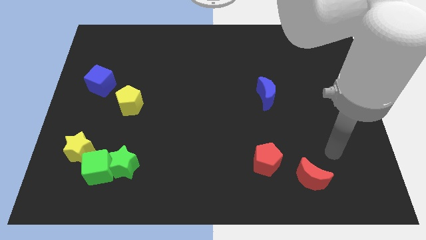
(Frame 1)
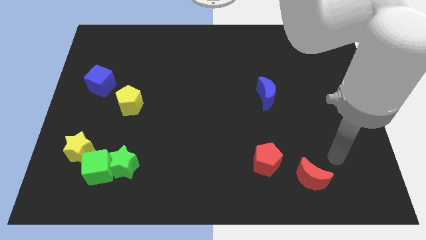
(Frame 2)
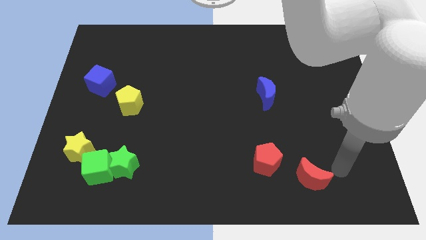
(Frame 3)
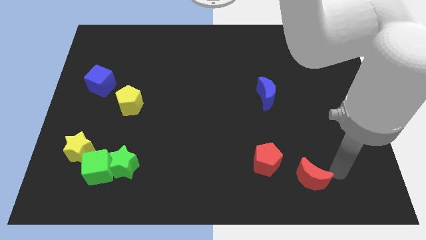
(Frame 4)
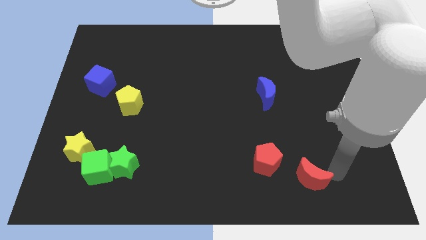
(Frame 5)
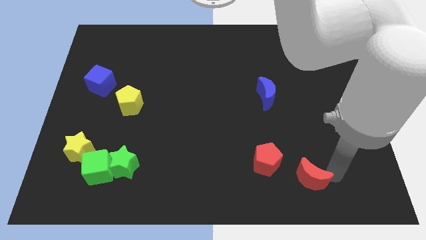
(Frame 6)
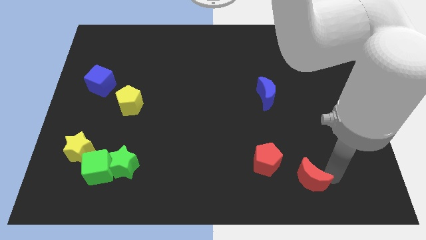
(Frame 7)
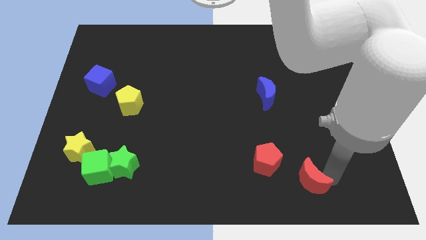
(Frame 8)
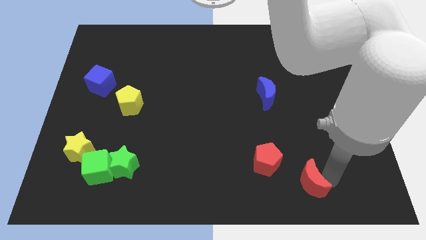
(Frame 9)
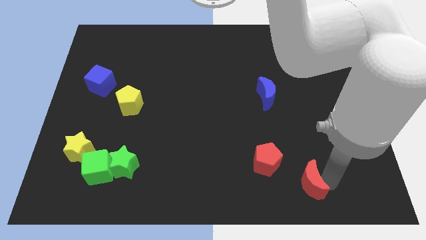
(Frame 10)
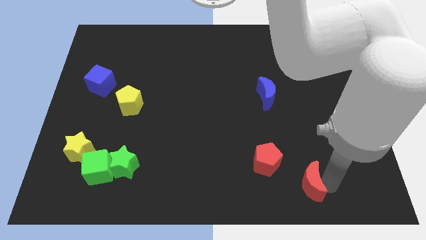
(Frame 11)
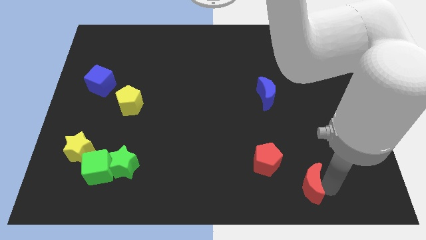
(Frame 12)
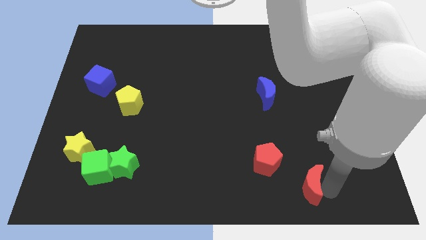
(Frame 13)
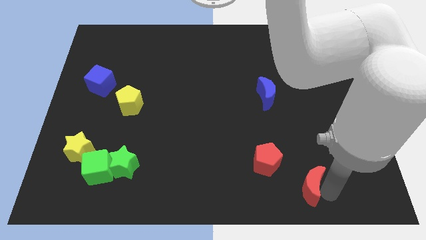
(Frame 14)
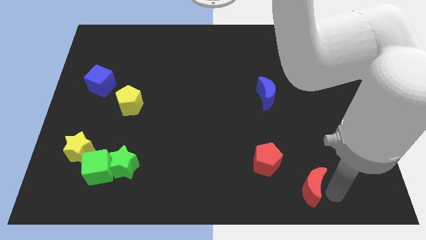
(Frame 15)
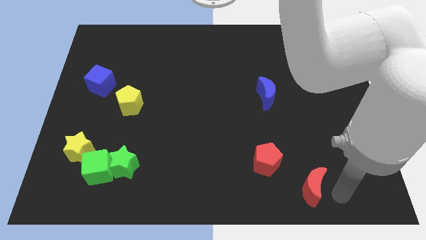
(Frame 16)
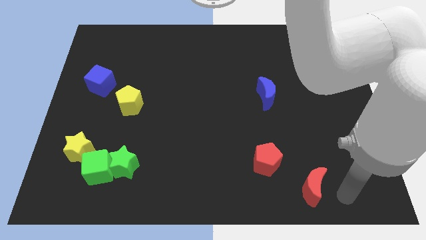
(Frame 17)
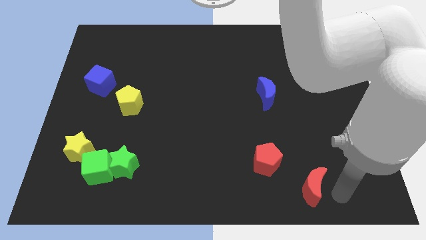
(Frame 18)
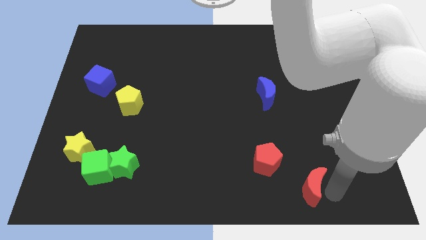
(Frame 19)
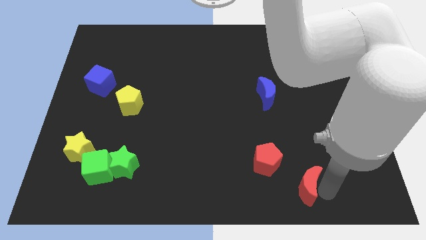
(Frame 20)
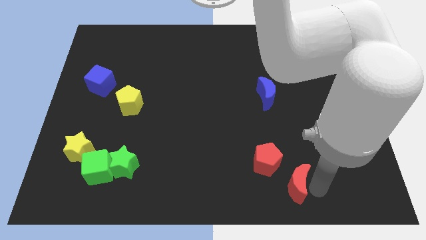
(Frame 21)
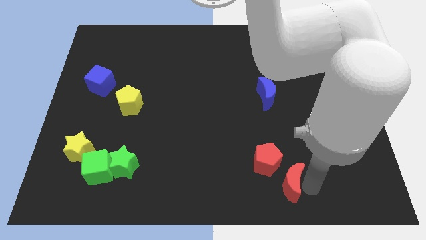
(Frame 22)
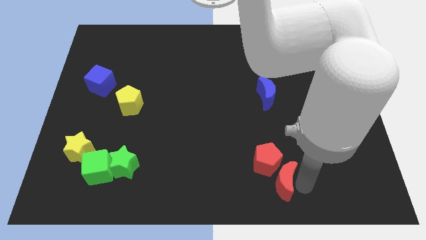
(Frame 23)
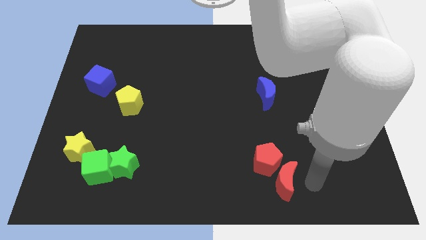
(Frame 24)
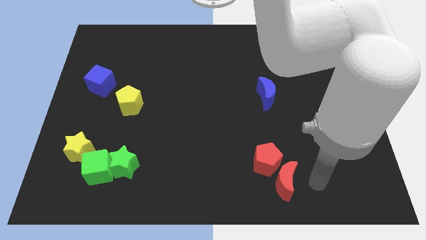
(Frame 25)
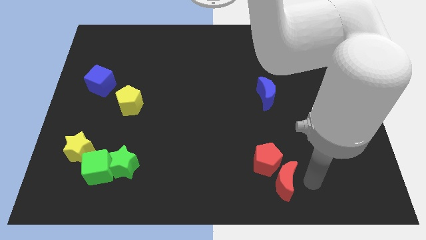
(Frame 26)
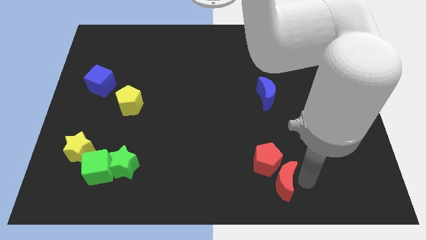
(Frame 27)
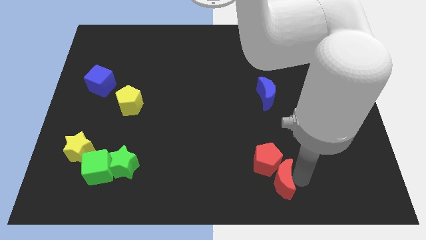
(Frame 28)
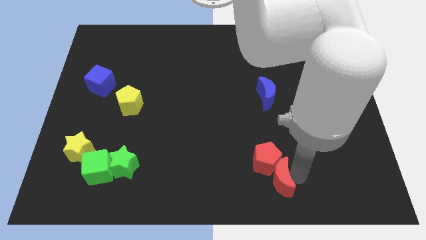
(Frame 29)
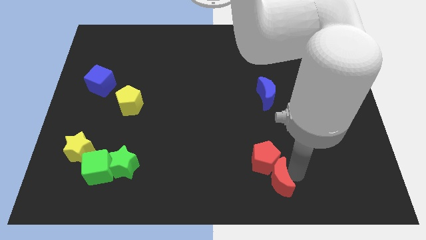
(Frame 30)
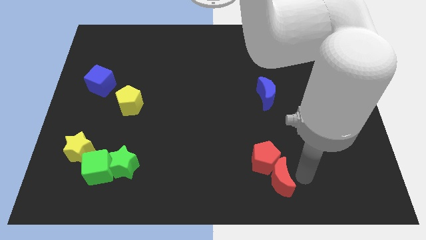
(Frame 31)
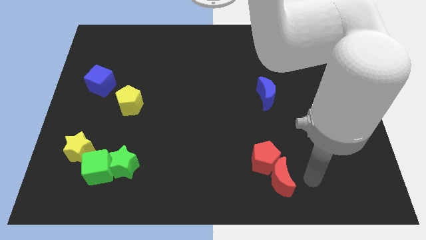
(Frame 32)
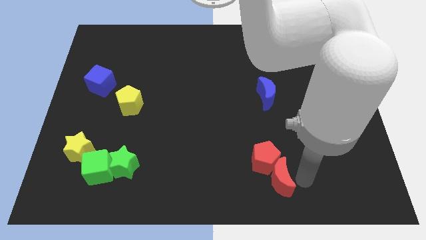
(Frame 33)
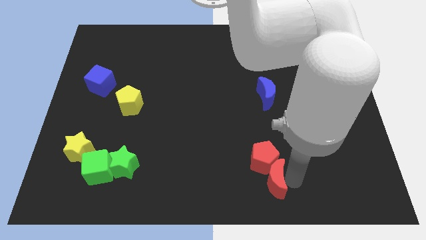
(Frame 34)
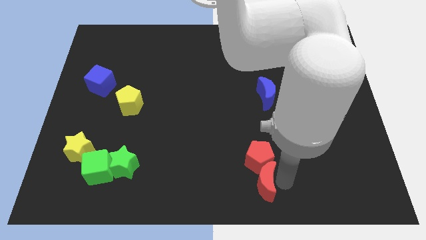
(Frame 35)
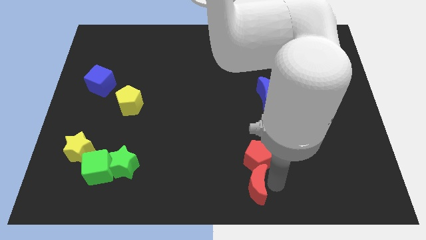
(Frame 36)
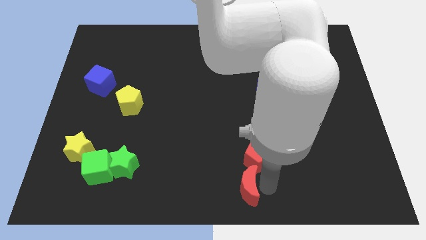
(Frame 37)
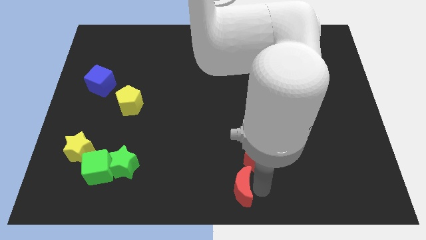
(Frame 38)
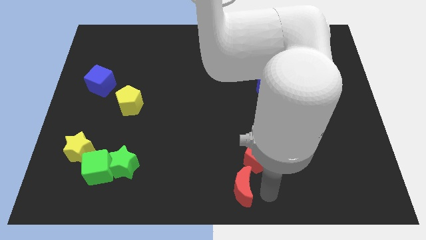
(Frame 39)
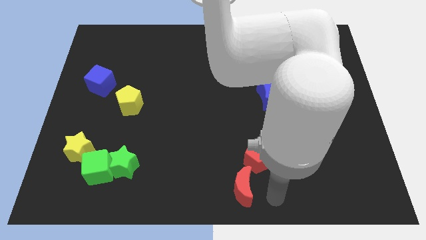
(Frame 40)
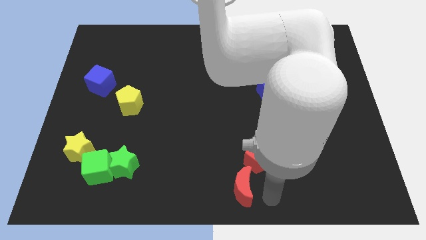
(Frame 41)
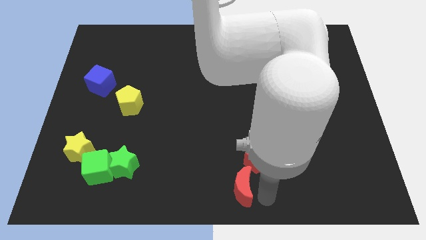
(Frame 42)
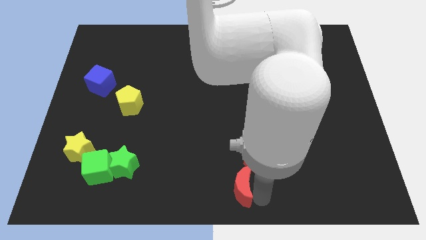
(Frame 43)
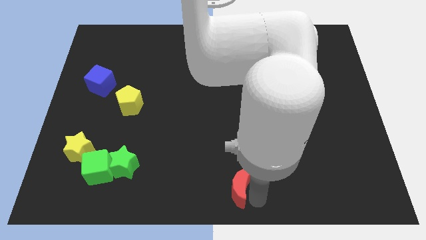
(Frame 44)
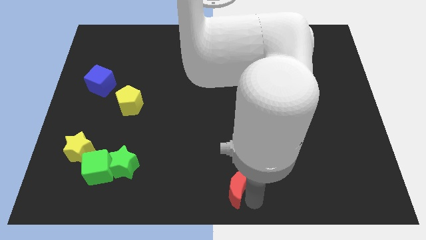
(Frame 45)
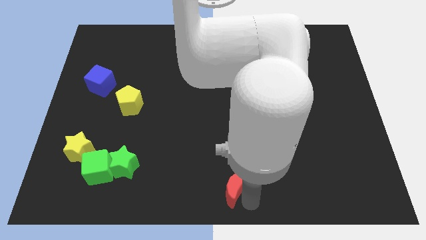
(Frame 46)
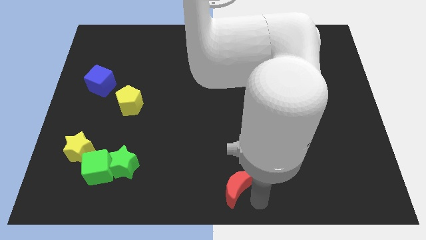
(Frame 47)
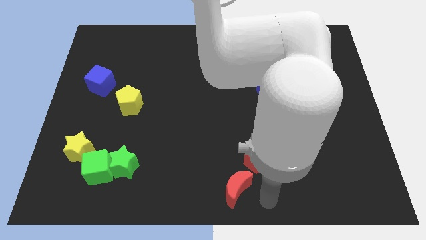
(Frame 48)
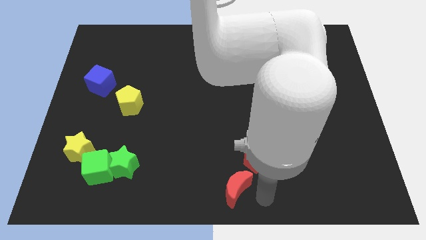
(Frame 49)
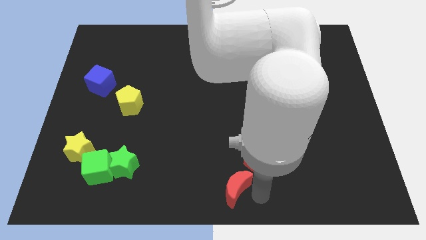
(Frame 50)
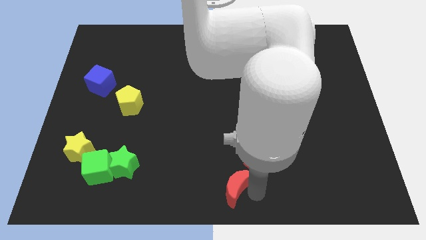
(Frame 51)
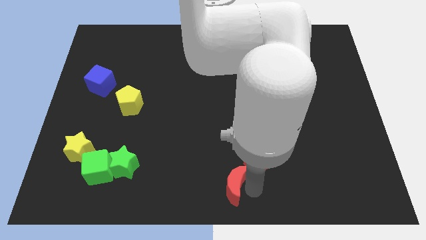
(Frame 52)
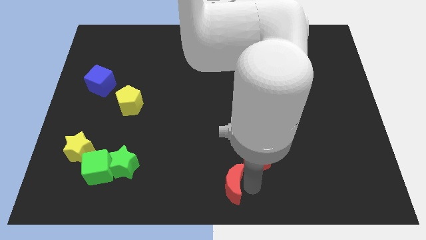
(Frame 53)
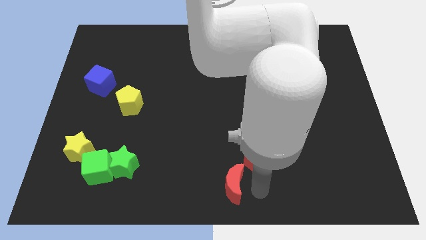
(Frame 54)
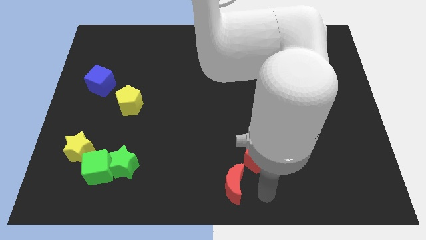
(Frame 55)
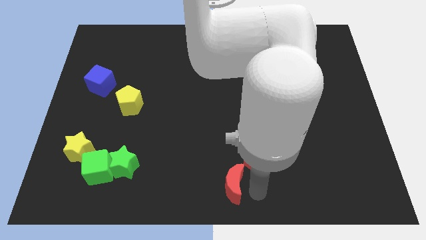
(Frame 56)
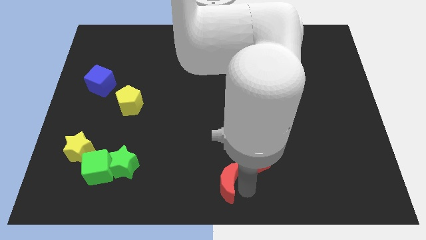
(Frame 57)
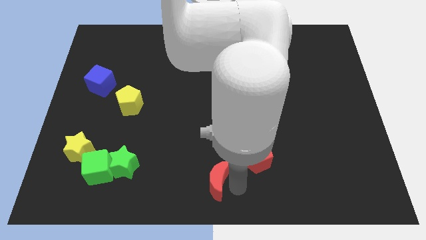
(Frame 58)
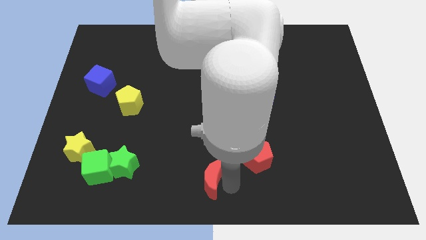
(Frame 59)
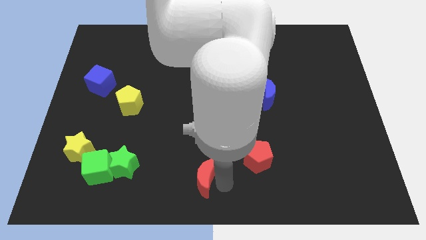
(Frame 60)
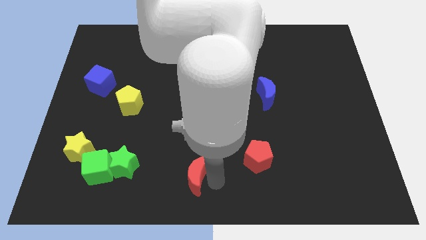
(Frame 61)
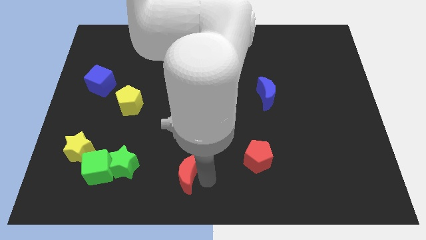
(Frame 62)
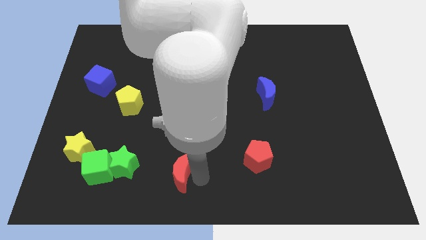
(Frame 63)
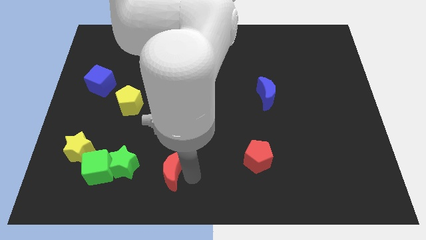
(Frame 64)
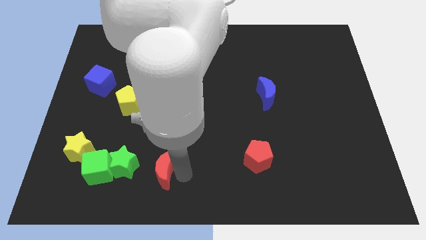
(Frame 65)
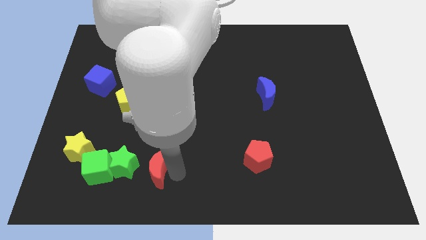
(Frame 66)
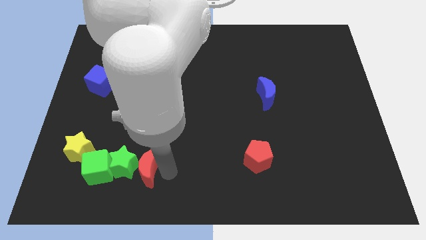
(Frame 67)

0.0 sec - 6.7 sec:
push the red moon towards the green star
